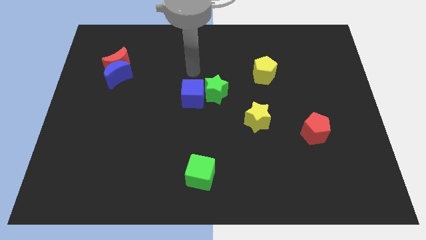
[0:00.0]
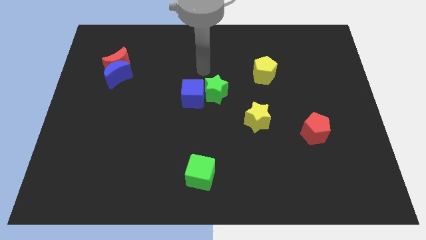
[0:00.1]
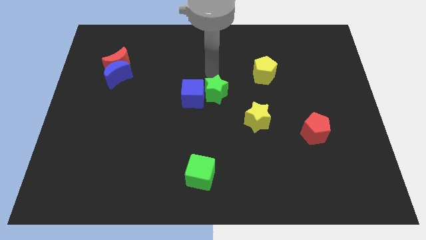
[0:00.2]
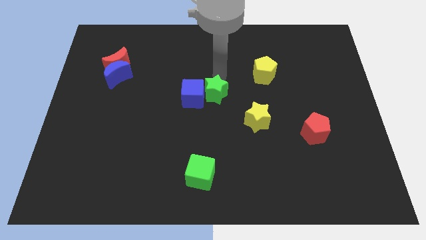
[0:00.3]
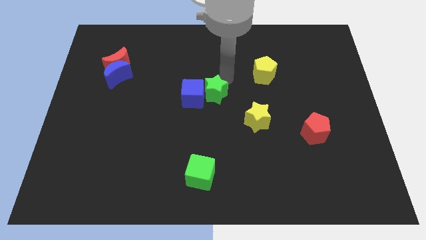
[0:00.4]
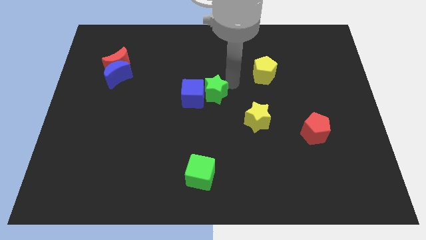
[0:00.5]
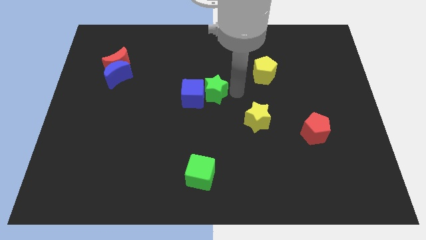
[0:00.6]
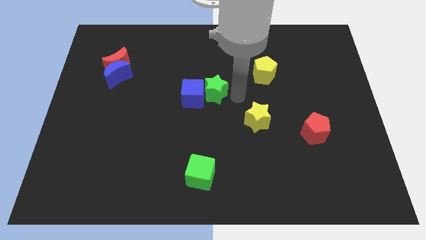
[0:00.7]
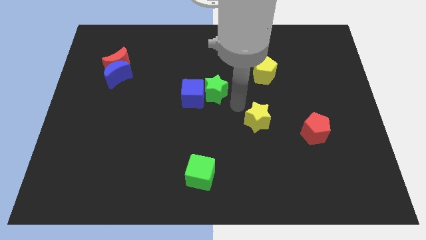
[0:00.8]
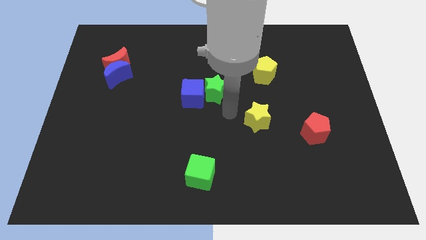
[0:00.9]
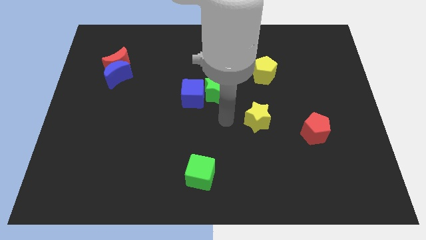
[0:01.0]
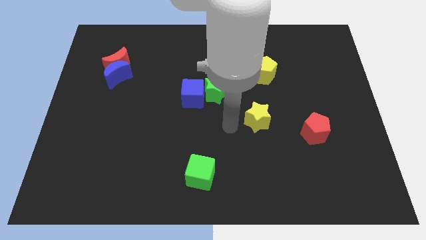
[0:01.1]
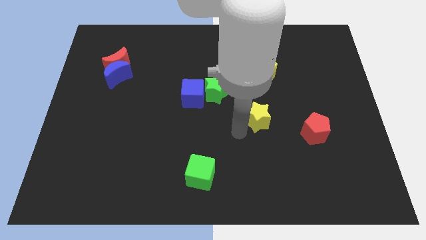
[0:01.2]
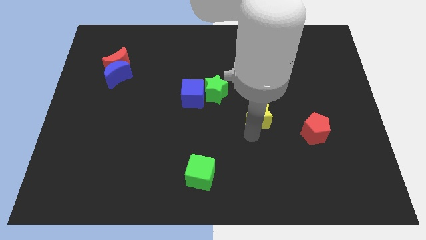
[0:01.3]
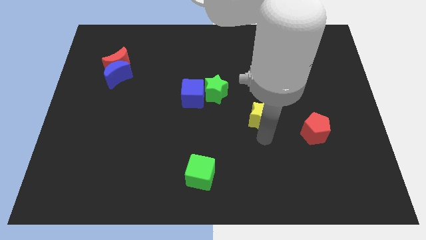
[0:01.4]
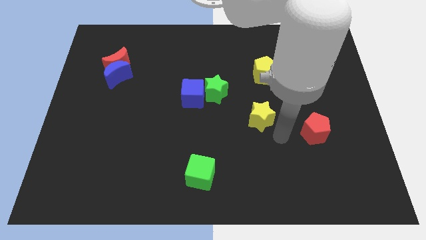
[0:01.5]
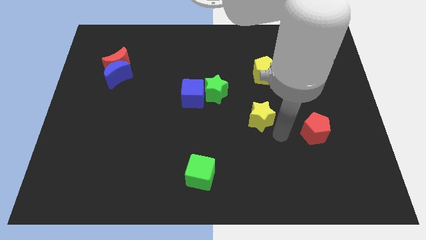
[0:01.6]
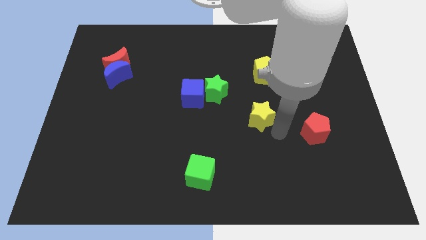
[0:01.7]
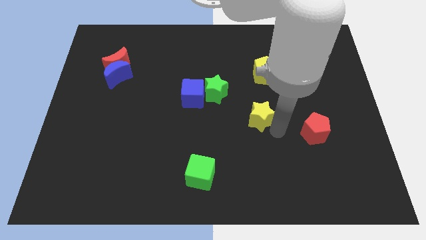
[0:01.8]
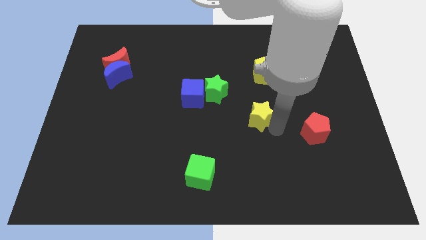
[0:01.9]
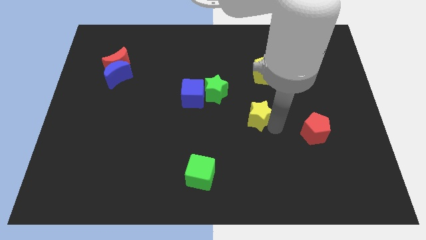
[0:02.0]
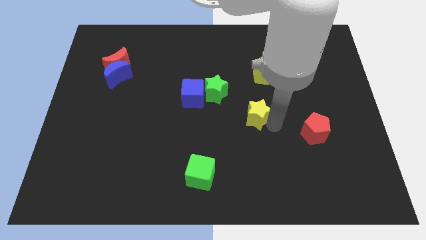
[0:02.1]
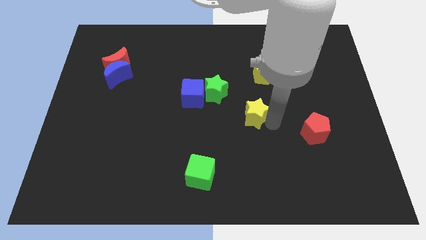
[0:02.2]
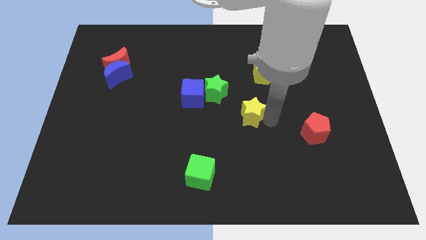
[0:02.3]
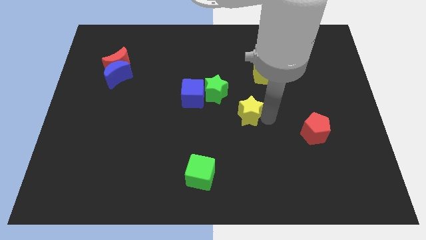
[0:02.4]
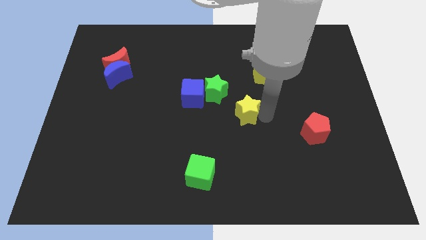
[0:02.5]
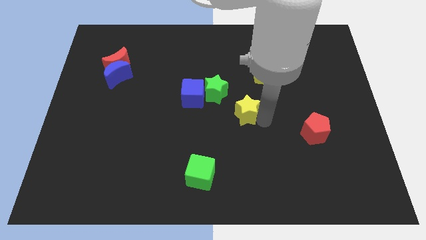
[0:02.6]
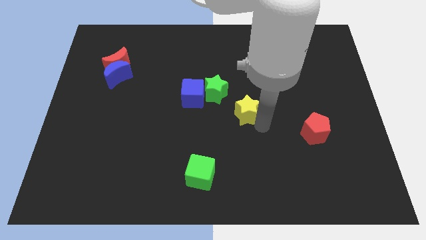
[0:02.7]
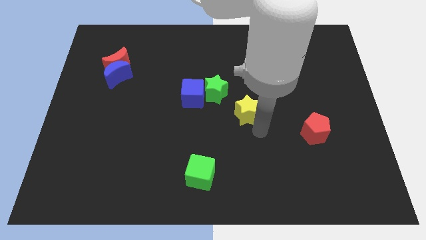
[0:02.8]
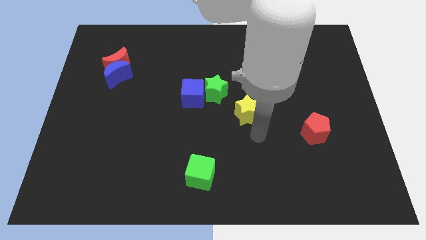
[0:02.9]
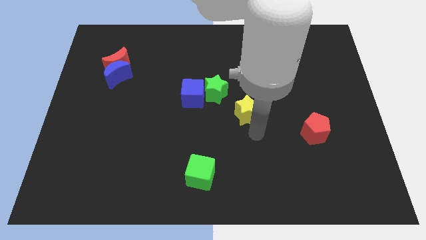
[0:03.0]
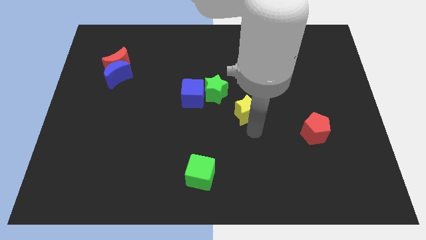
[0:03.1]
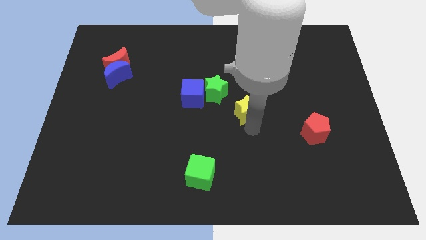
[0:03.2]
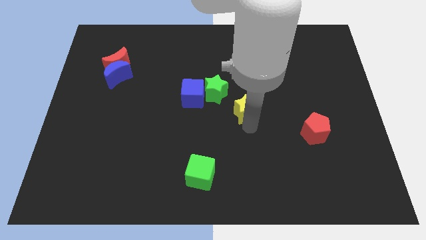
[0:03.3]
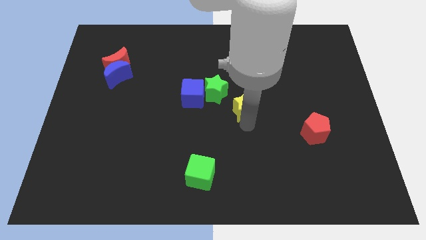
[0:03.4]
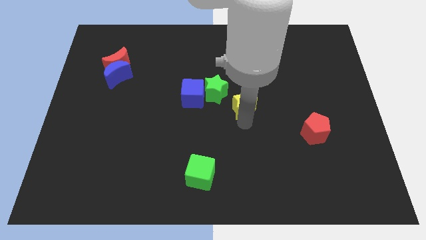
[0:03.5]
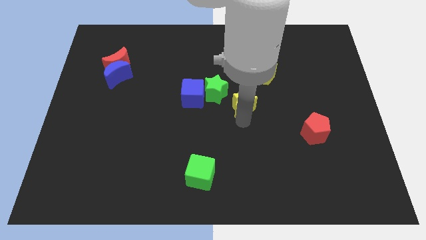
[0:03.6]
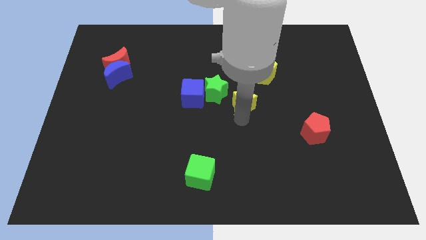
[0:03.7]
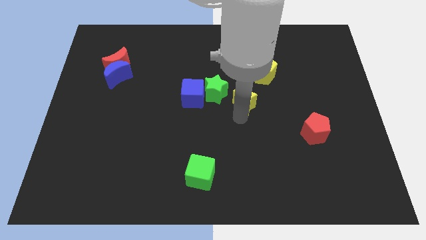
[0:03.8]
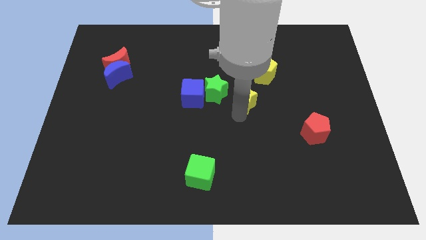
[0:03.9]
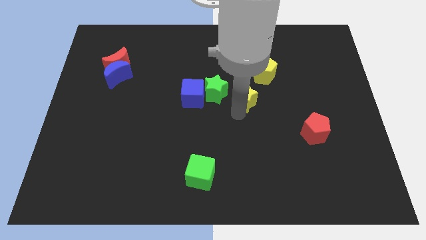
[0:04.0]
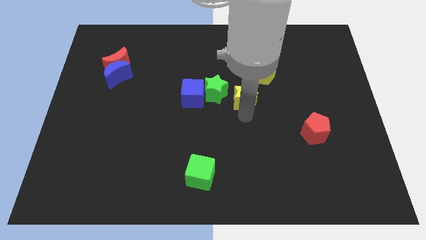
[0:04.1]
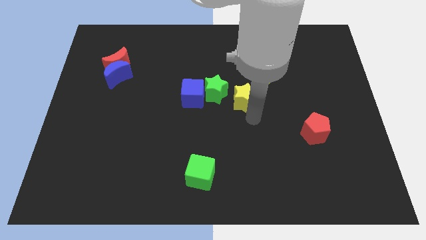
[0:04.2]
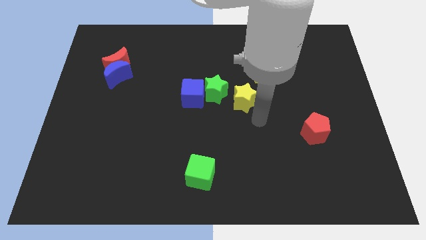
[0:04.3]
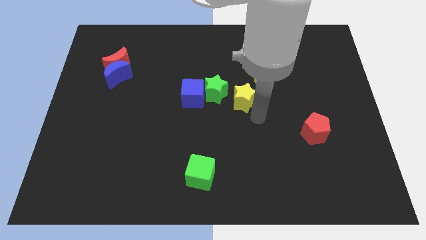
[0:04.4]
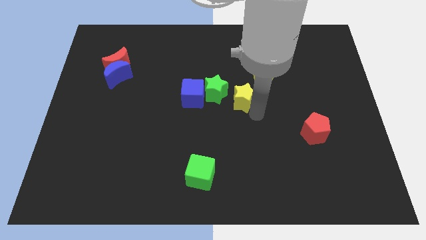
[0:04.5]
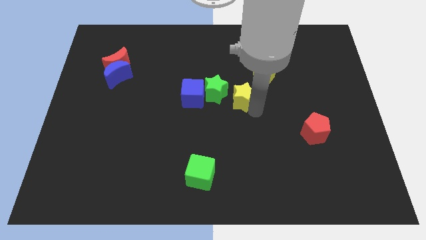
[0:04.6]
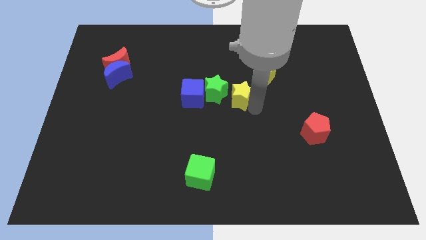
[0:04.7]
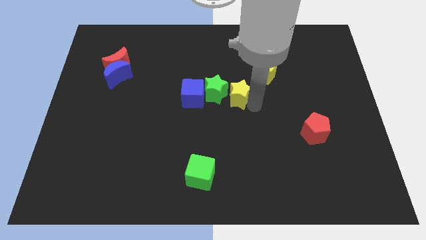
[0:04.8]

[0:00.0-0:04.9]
slide the yellow star somewhat upwards and left diagonally

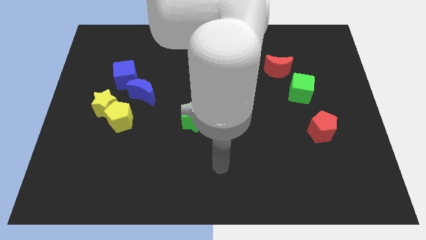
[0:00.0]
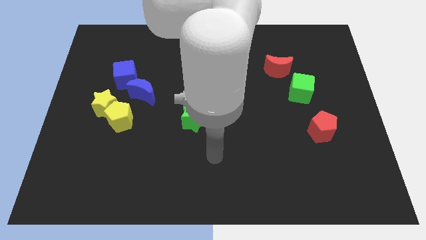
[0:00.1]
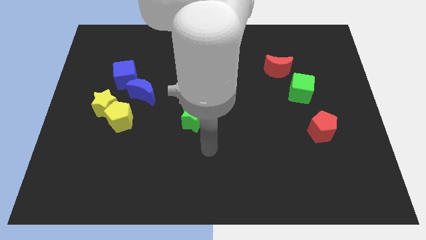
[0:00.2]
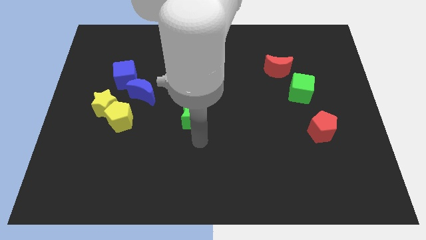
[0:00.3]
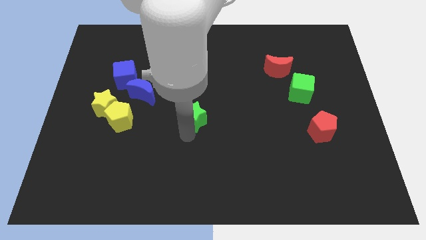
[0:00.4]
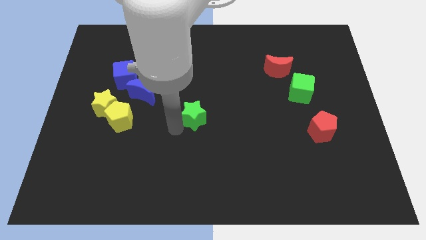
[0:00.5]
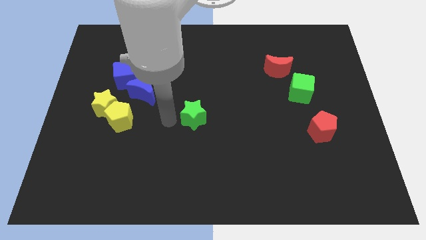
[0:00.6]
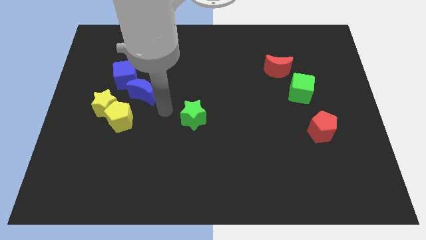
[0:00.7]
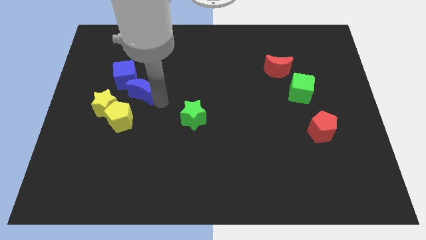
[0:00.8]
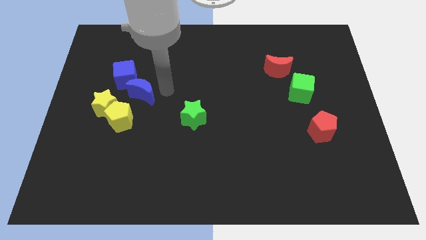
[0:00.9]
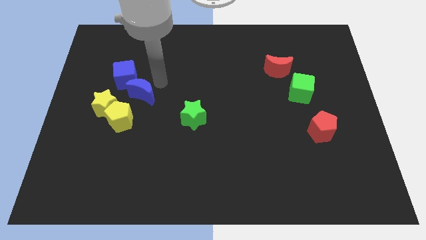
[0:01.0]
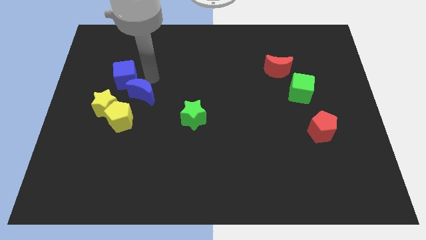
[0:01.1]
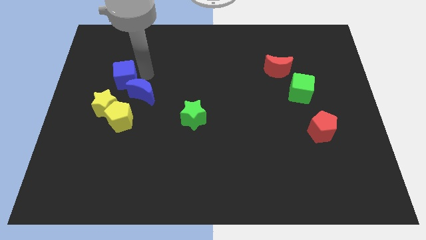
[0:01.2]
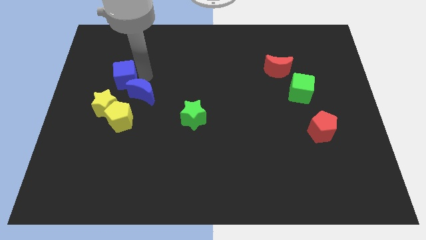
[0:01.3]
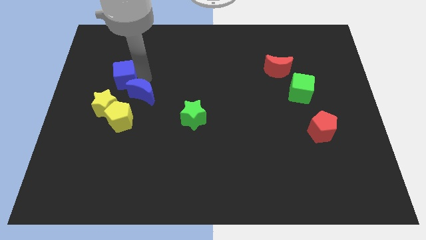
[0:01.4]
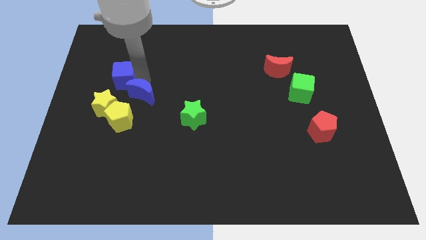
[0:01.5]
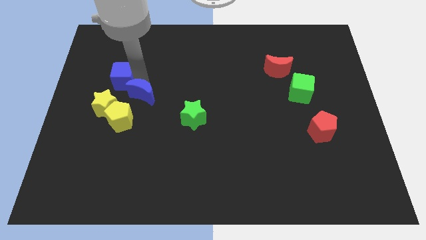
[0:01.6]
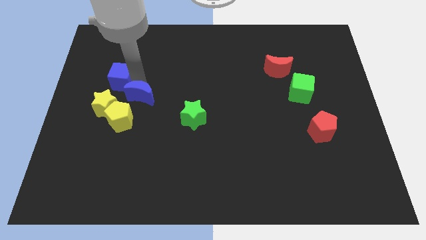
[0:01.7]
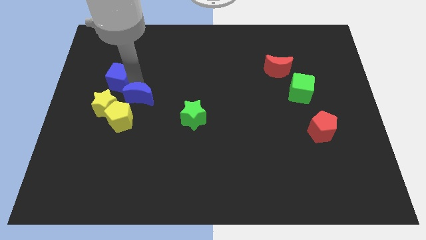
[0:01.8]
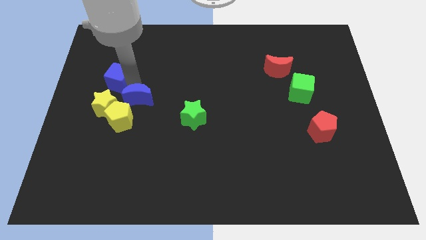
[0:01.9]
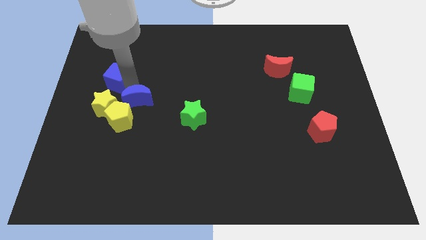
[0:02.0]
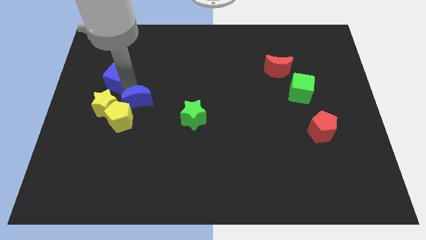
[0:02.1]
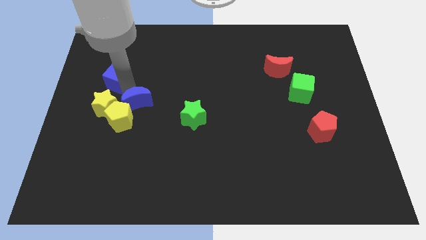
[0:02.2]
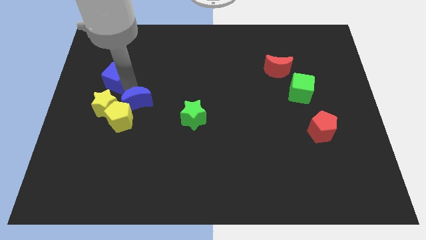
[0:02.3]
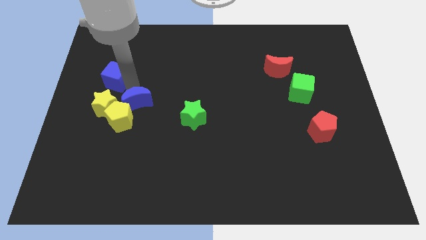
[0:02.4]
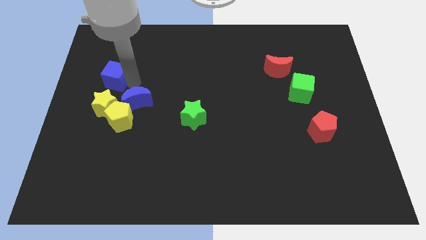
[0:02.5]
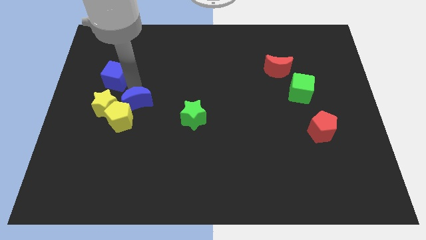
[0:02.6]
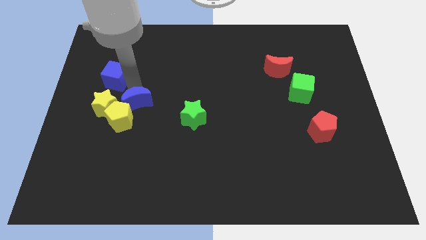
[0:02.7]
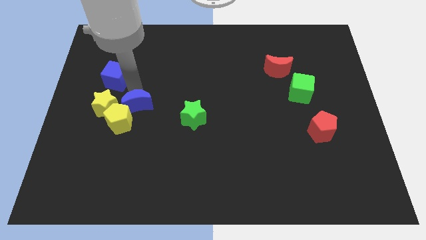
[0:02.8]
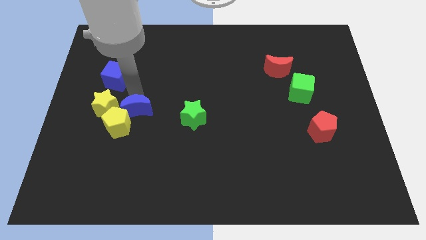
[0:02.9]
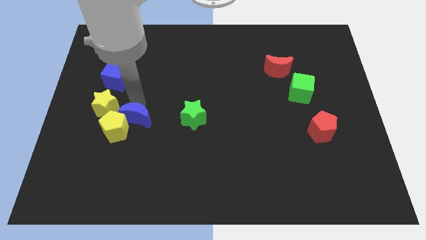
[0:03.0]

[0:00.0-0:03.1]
slide the blue moon somewhat downwards

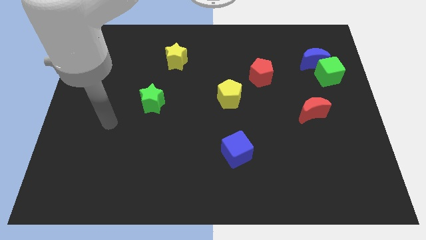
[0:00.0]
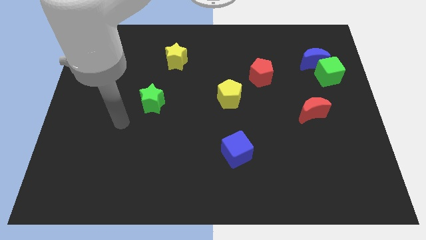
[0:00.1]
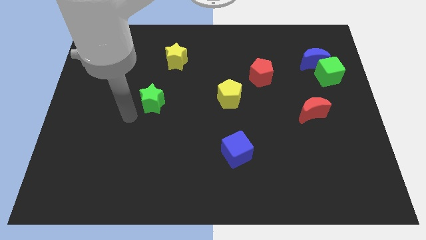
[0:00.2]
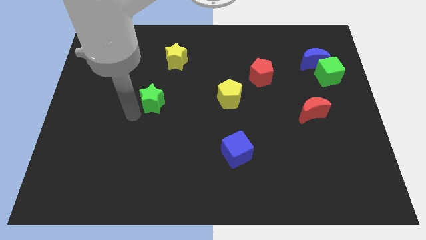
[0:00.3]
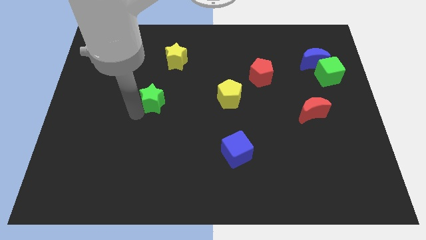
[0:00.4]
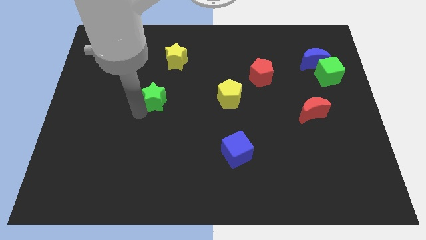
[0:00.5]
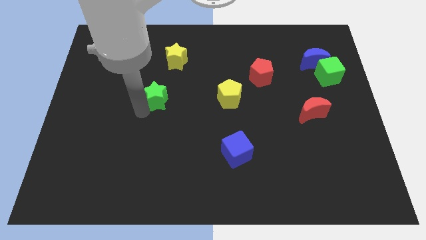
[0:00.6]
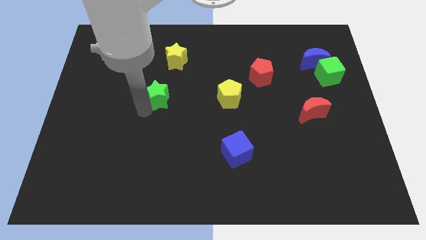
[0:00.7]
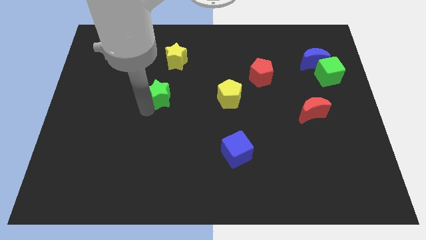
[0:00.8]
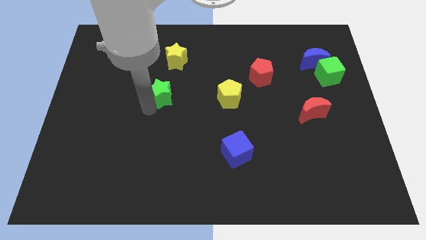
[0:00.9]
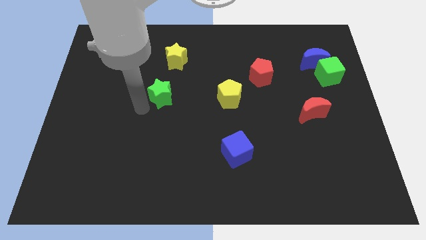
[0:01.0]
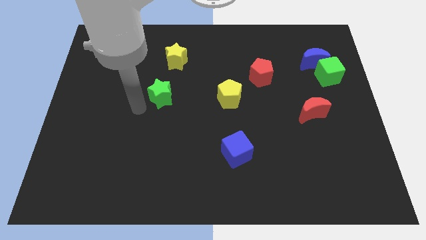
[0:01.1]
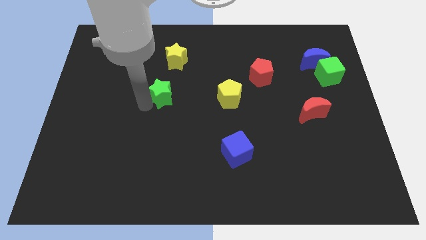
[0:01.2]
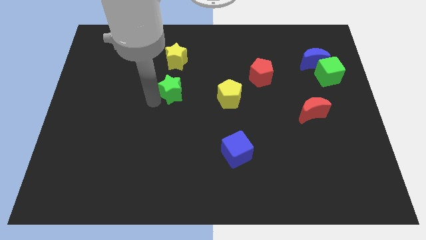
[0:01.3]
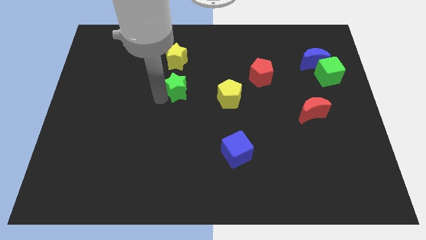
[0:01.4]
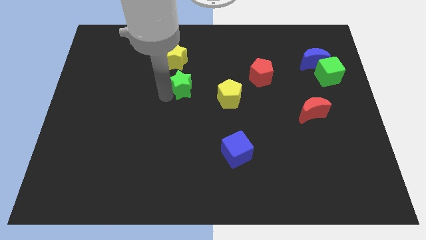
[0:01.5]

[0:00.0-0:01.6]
slightly move the green star diagonally up and to the right
